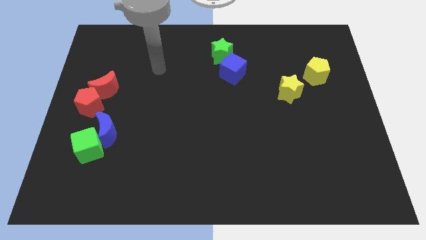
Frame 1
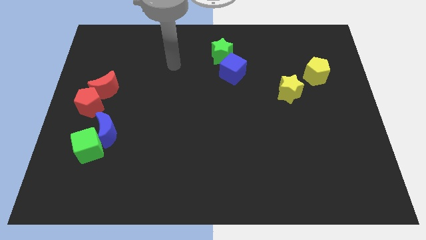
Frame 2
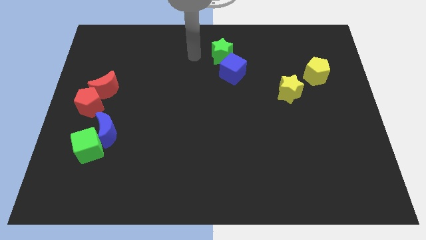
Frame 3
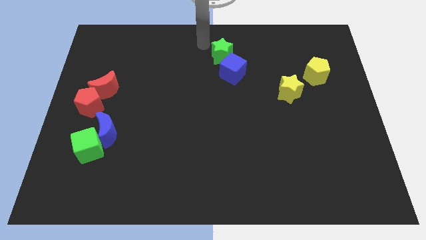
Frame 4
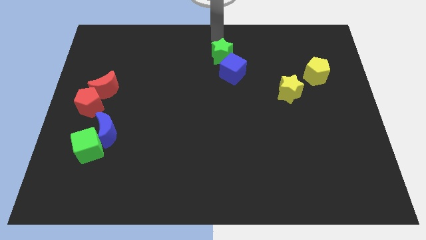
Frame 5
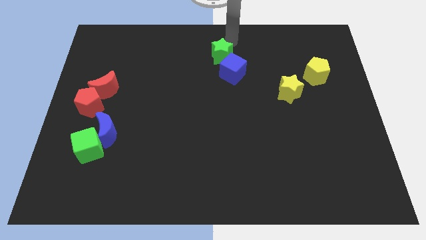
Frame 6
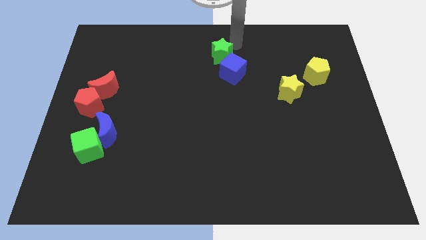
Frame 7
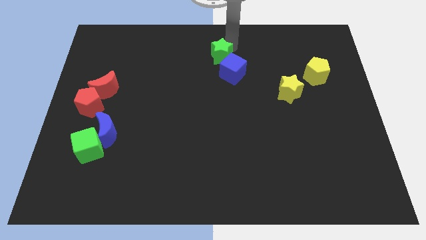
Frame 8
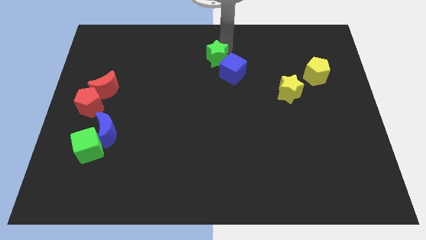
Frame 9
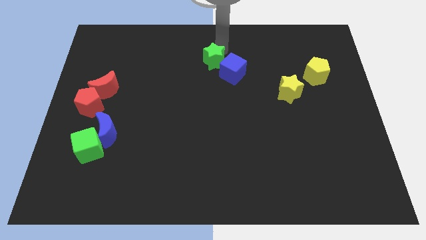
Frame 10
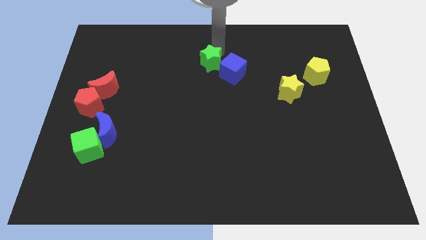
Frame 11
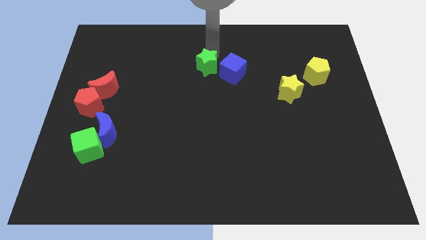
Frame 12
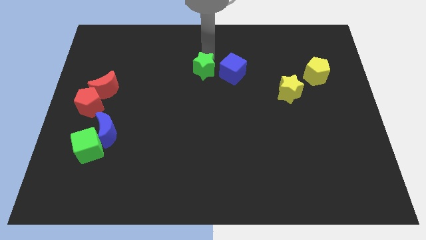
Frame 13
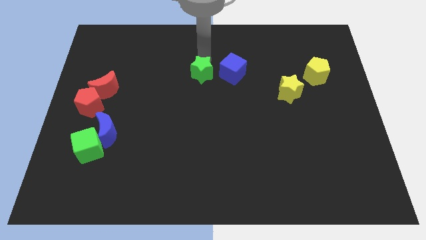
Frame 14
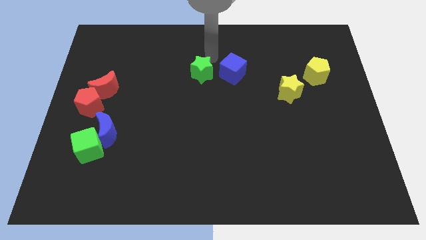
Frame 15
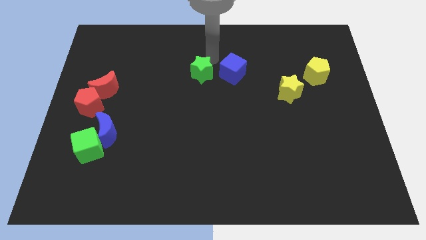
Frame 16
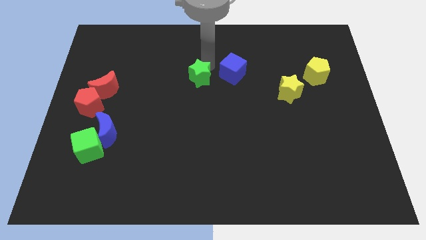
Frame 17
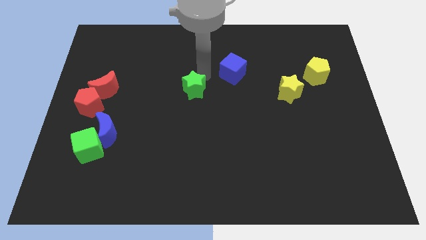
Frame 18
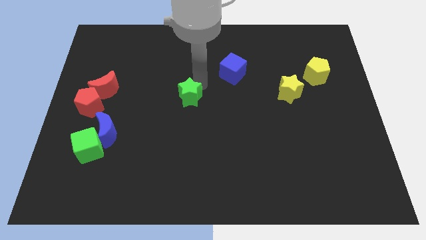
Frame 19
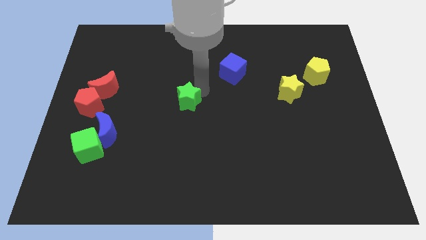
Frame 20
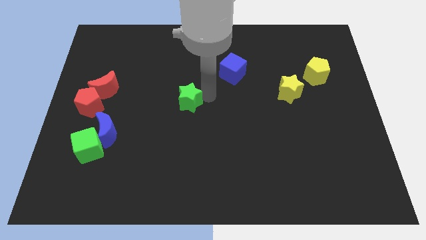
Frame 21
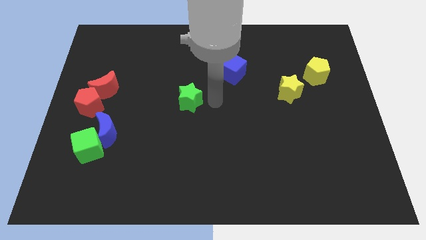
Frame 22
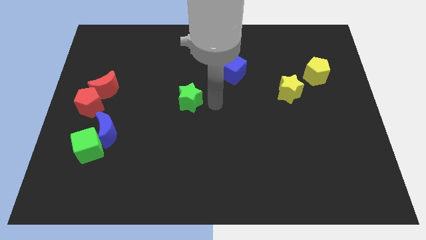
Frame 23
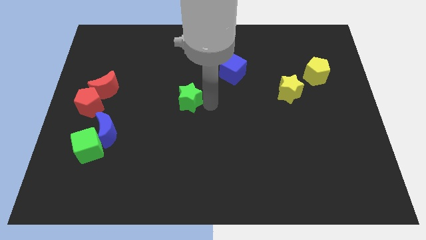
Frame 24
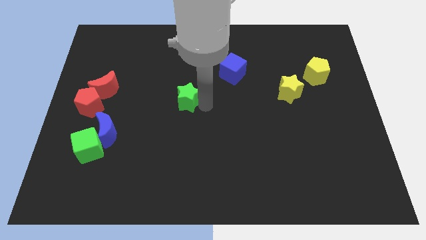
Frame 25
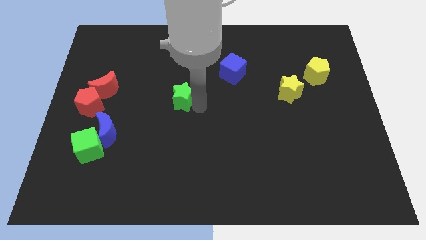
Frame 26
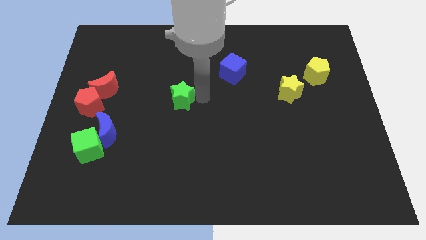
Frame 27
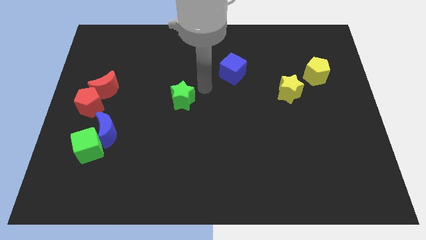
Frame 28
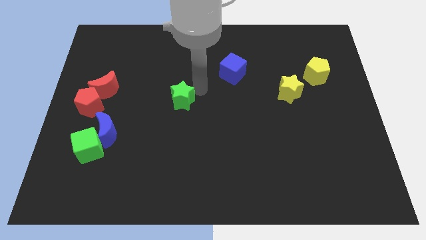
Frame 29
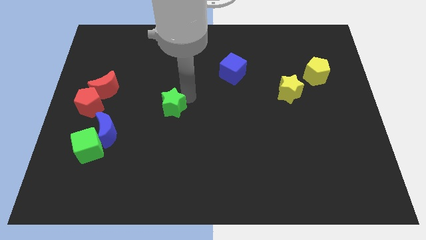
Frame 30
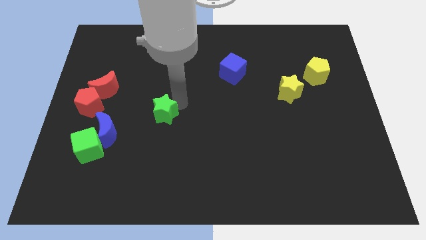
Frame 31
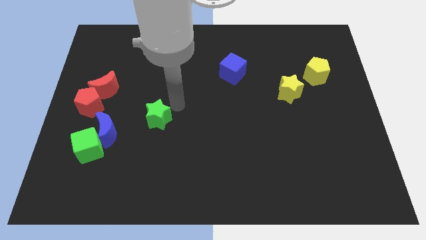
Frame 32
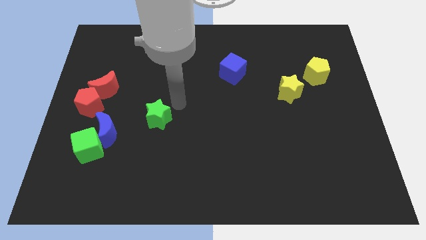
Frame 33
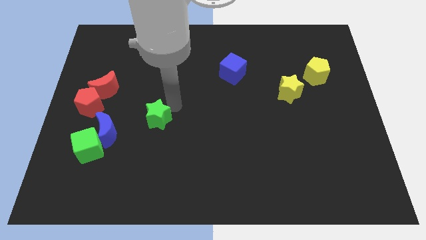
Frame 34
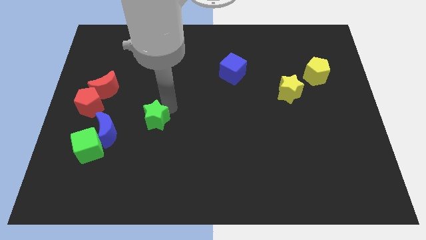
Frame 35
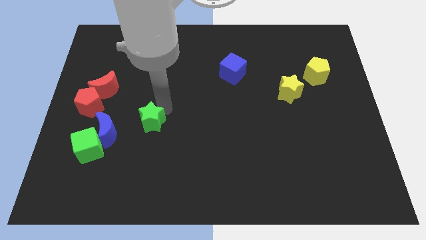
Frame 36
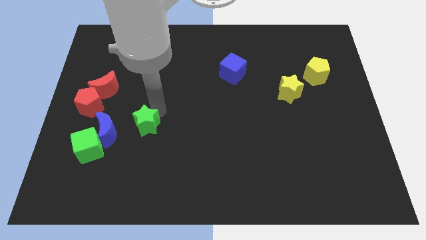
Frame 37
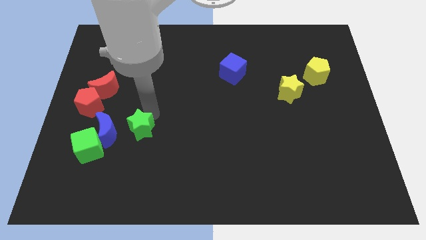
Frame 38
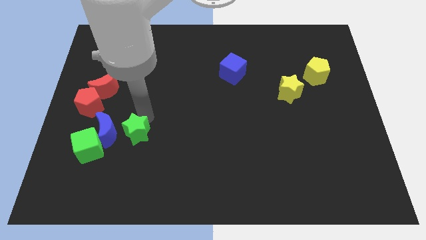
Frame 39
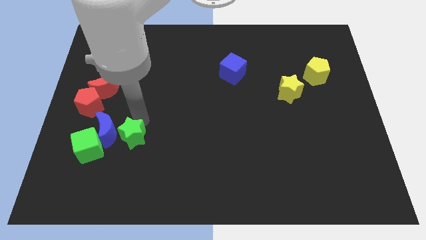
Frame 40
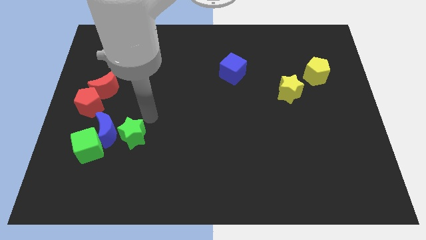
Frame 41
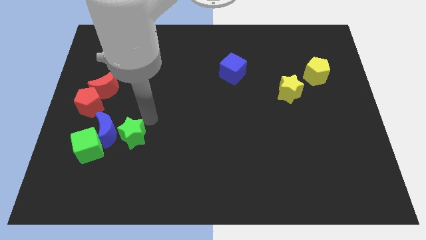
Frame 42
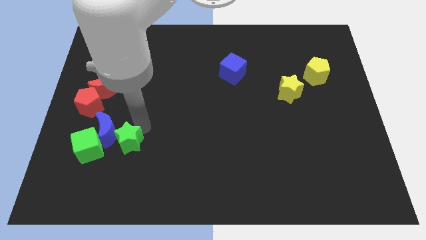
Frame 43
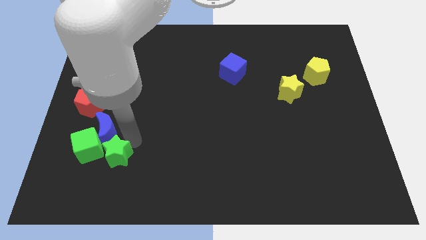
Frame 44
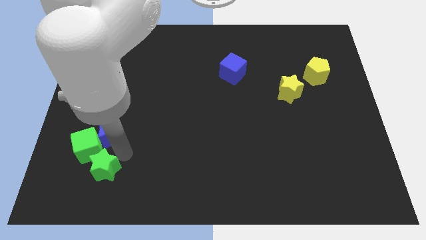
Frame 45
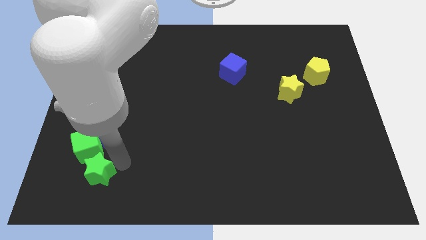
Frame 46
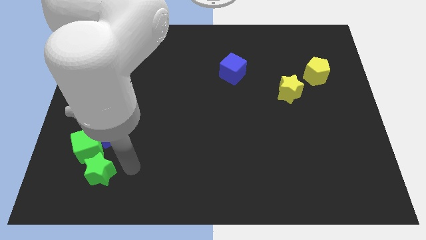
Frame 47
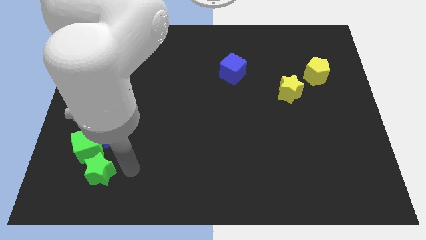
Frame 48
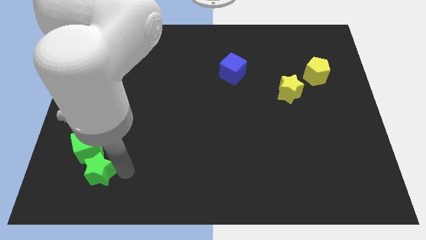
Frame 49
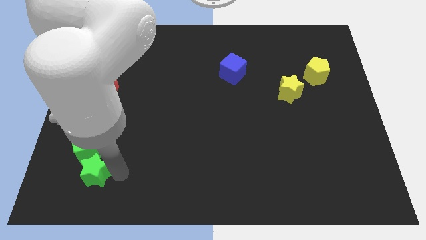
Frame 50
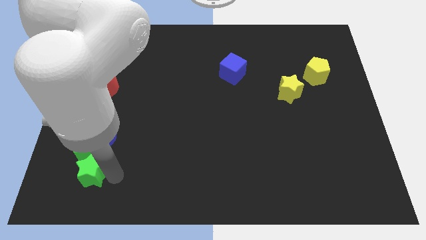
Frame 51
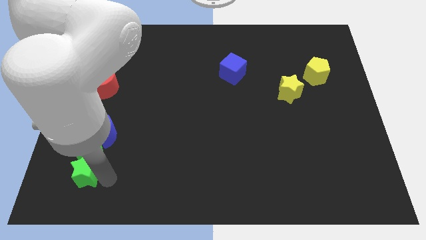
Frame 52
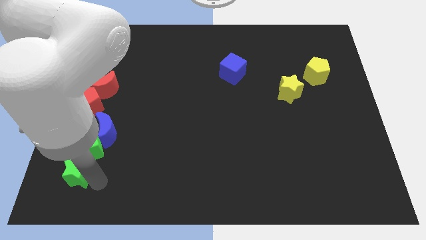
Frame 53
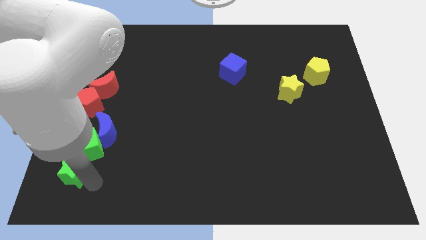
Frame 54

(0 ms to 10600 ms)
move the green star to the bottom left
